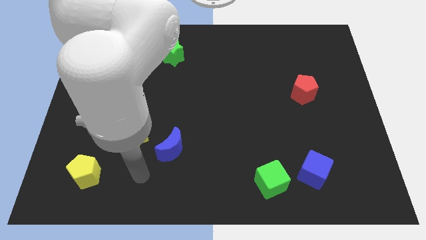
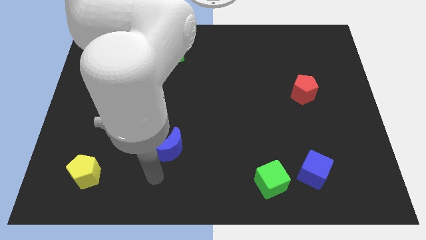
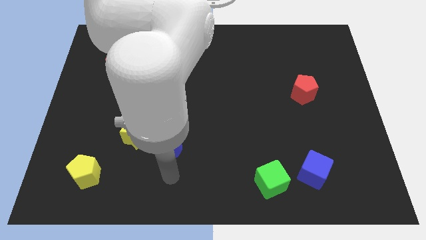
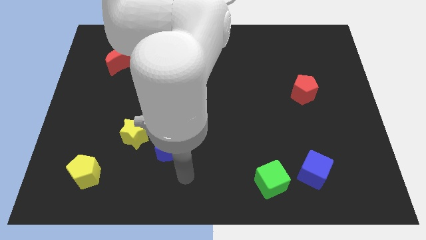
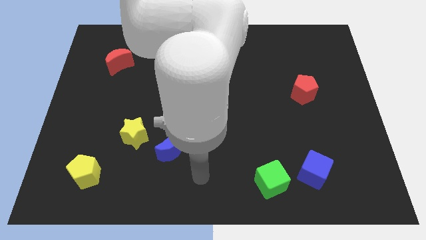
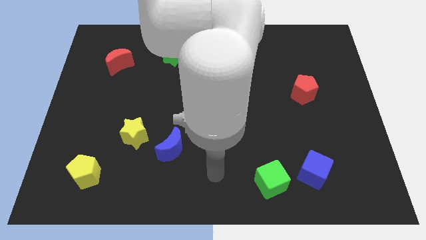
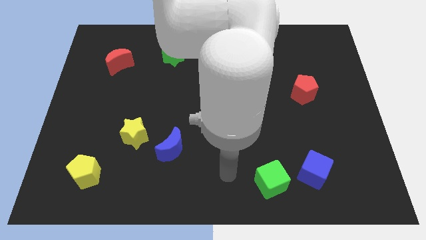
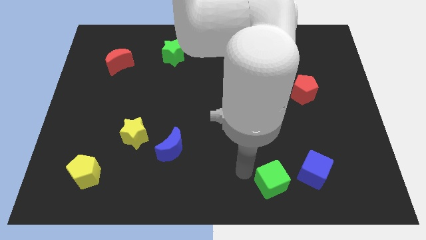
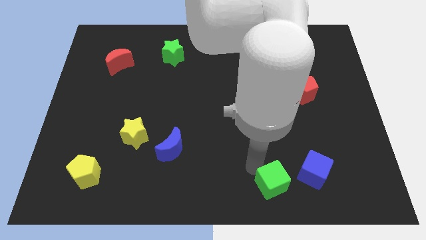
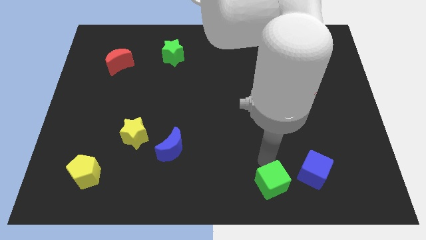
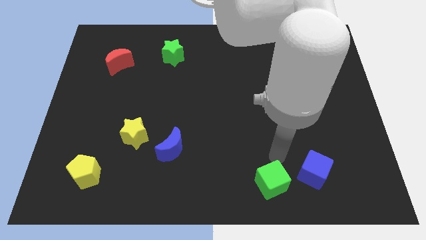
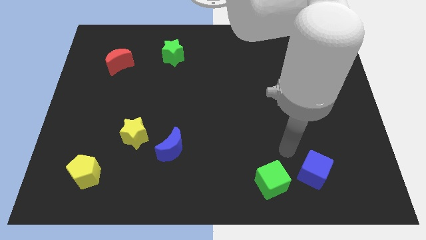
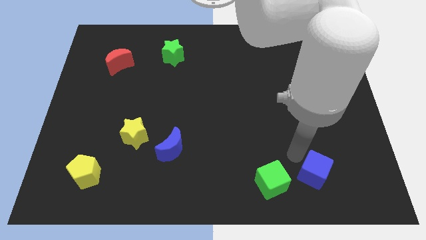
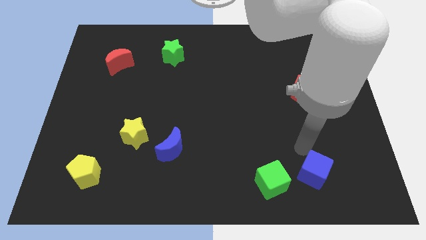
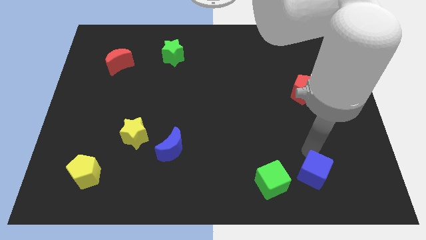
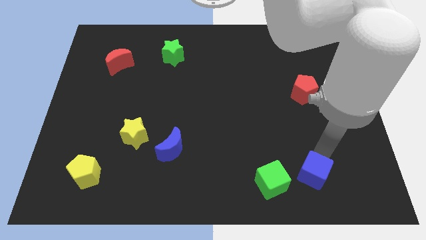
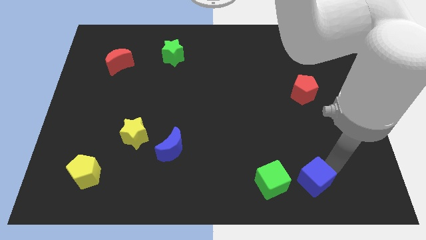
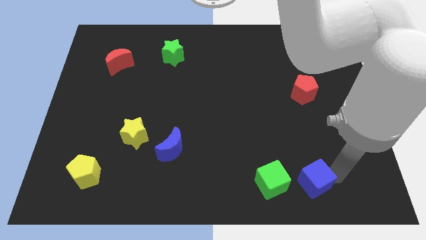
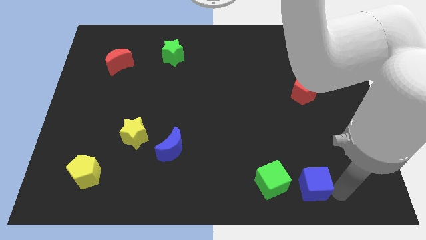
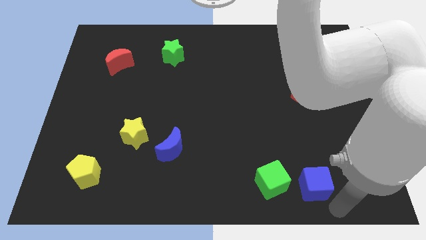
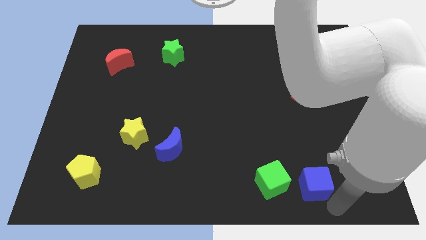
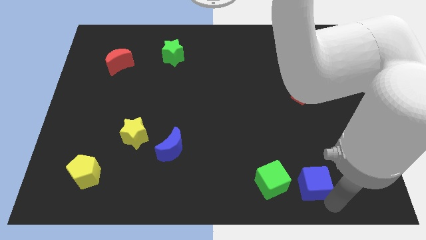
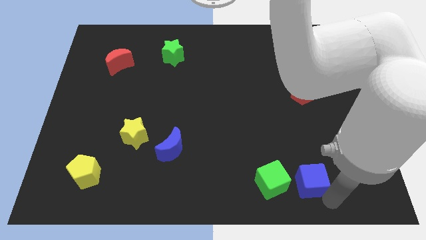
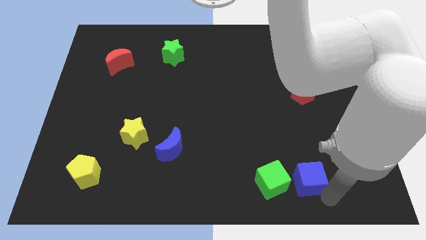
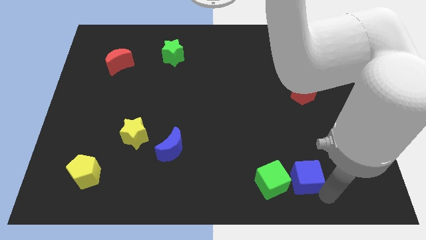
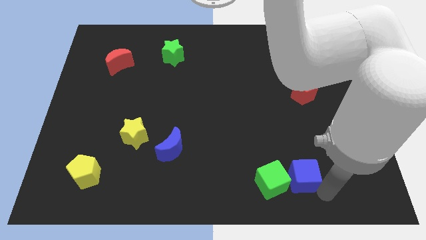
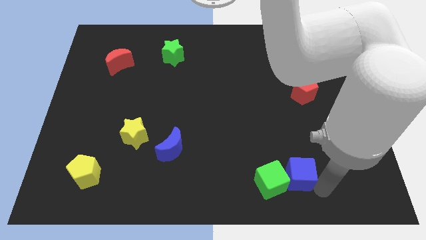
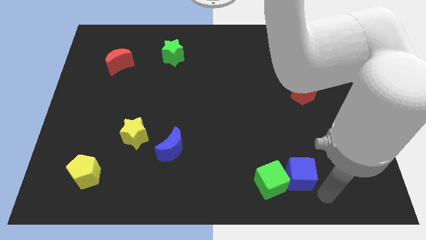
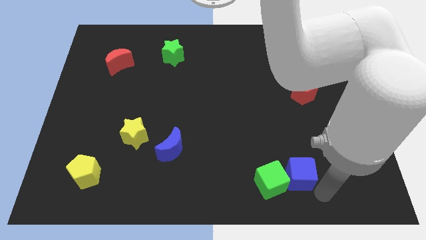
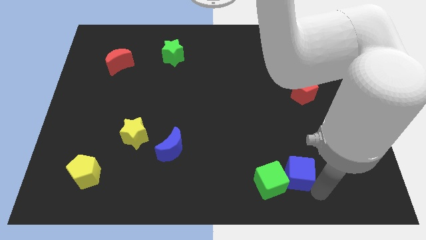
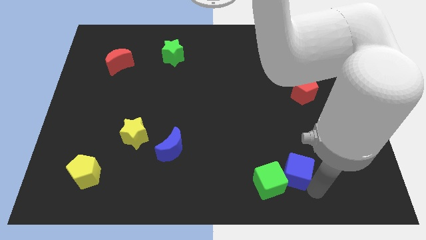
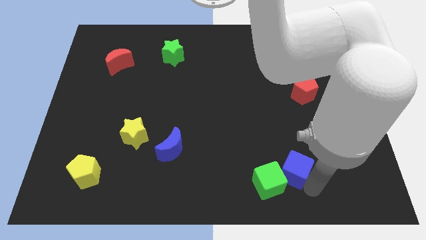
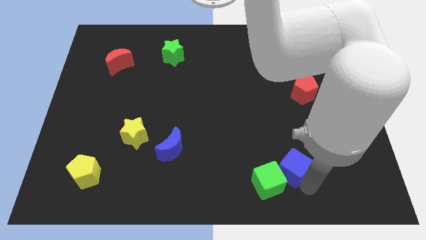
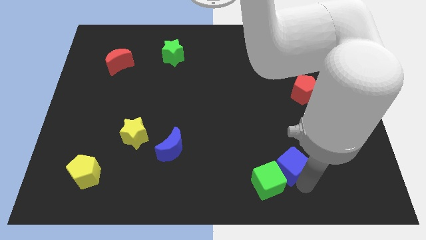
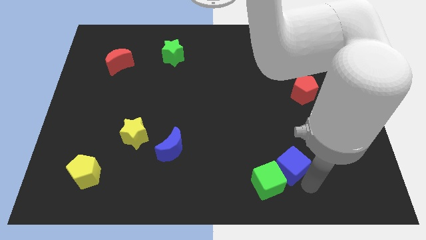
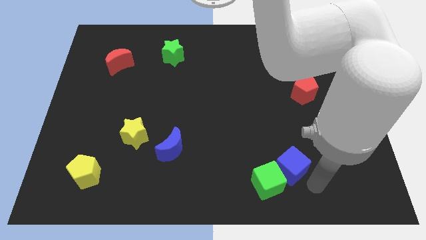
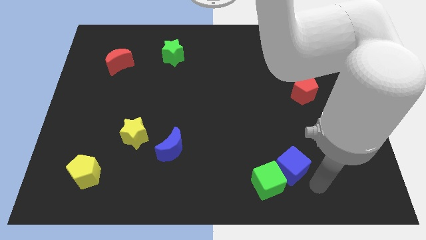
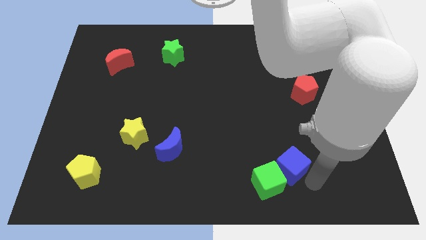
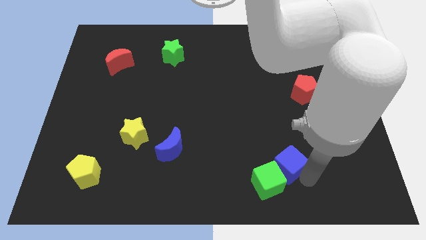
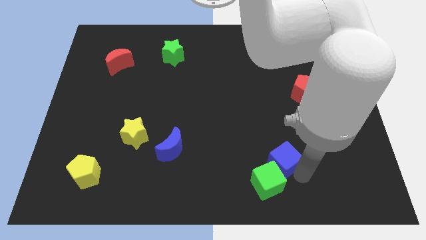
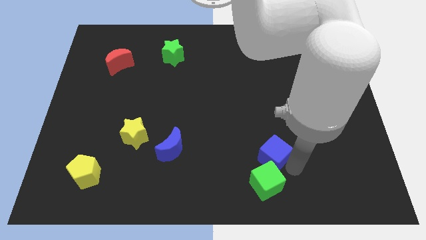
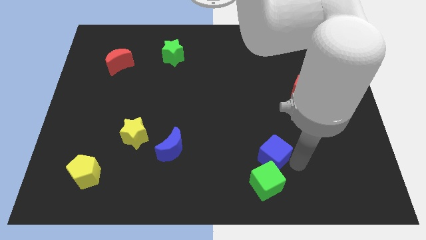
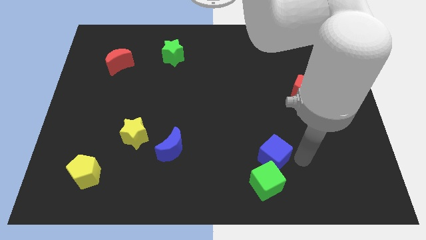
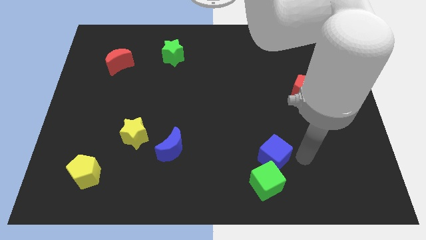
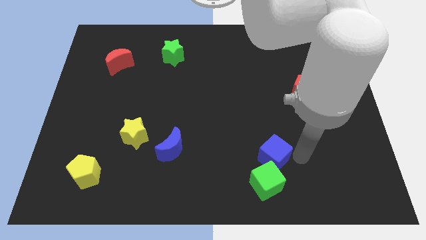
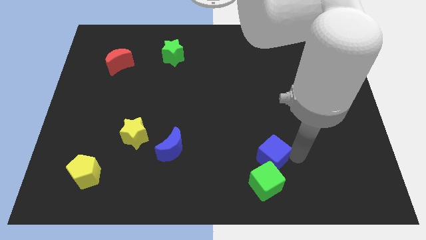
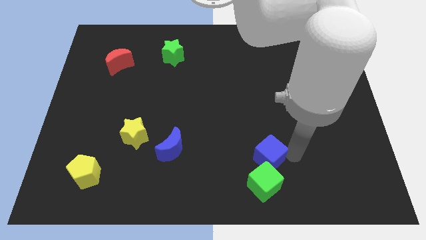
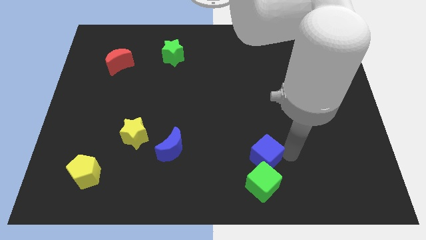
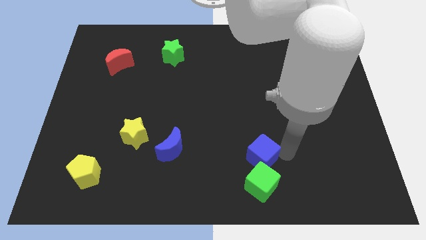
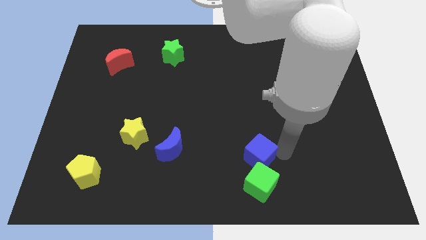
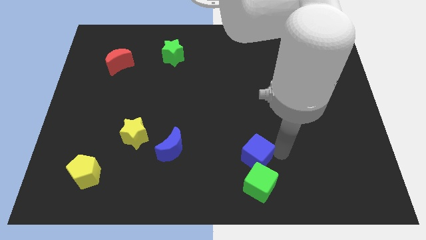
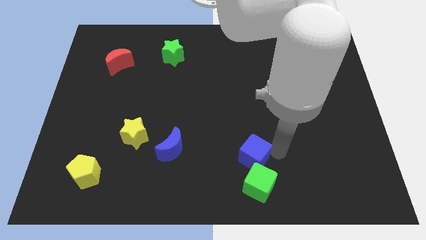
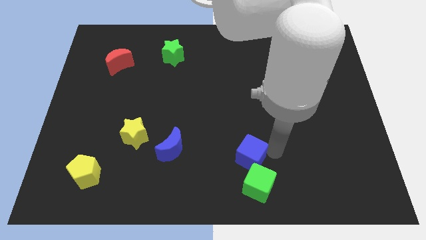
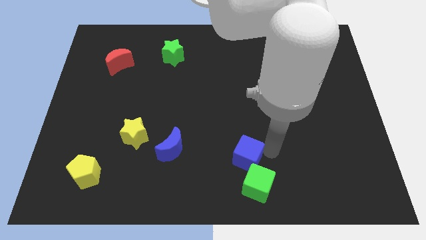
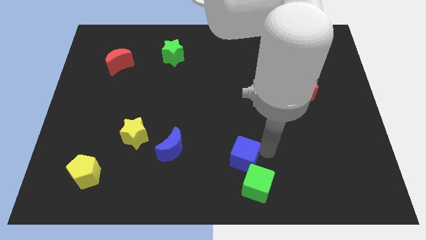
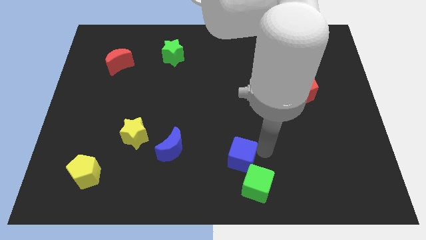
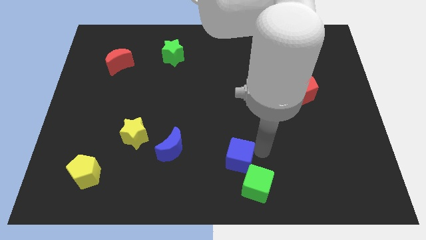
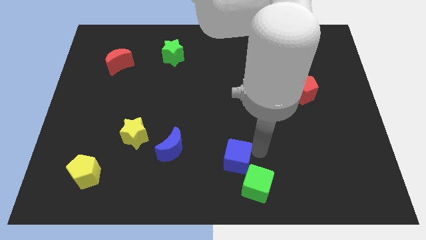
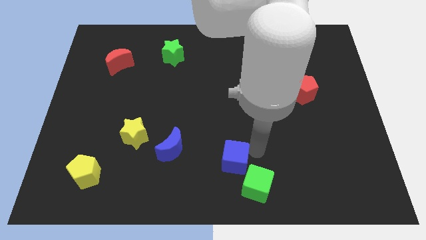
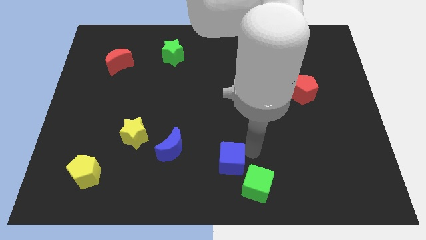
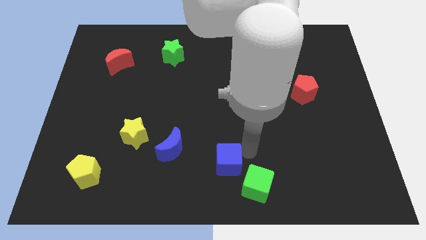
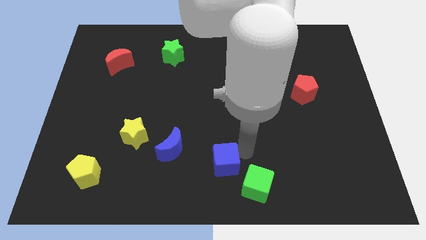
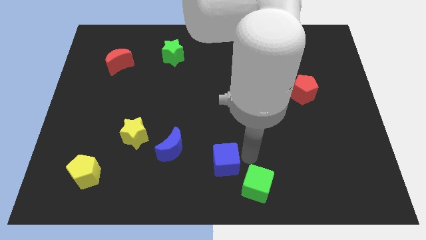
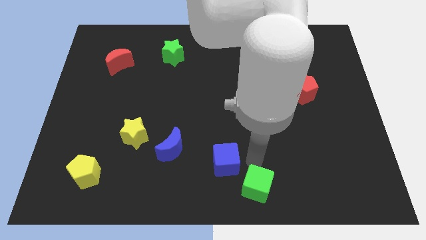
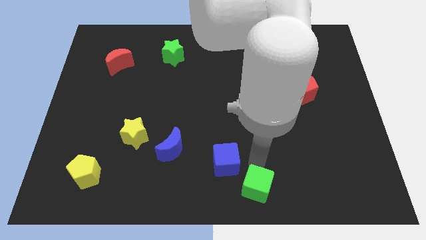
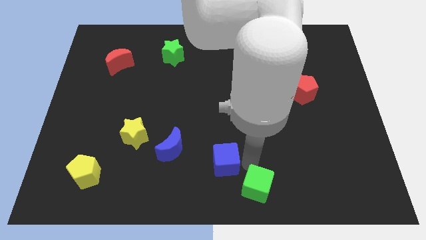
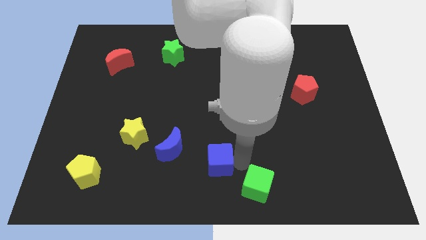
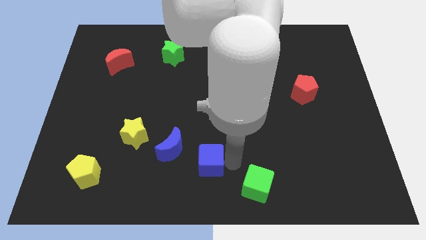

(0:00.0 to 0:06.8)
slide the blue cube to the left

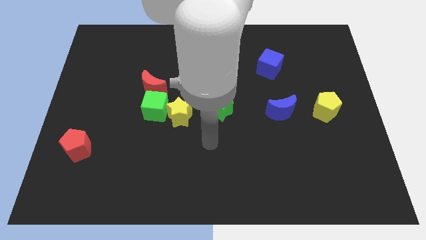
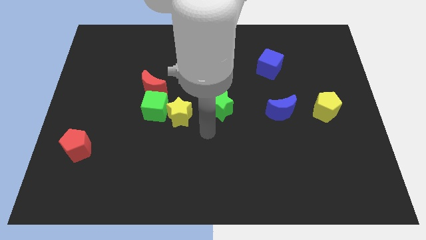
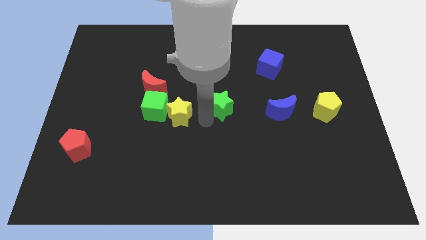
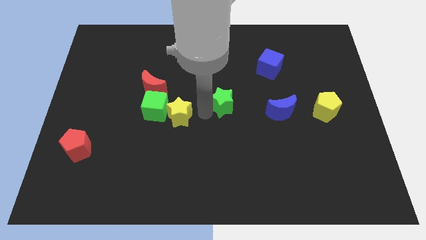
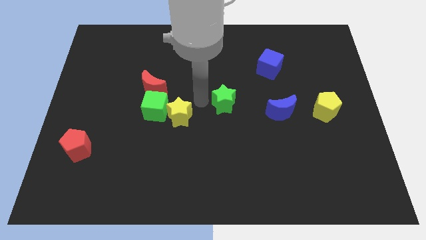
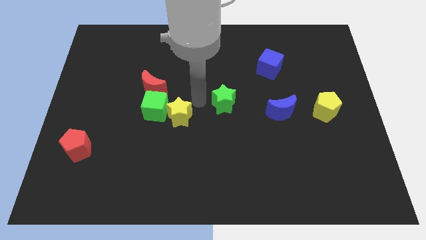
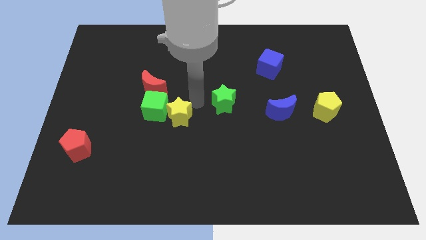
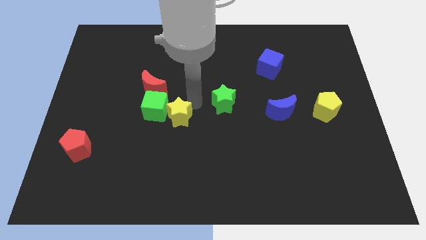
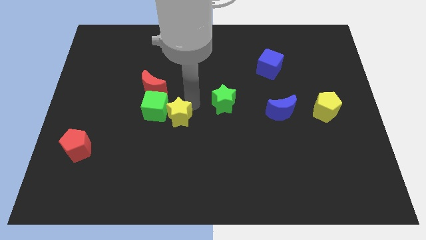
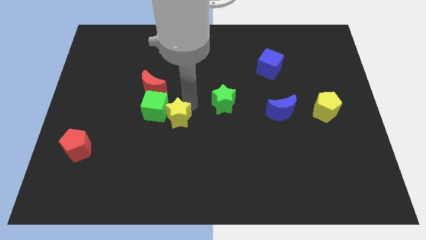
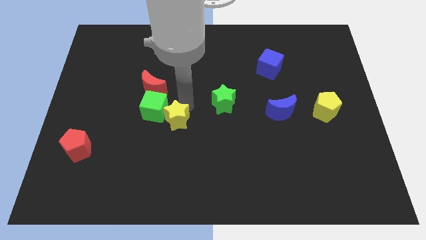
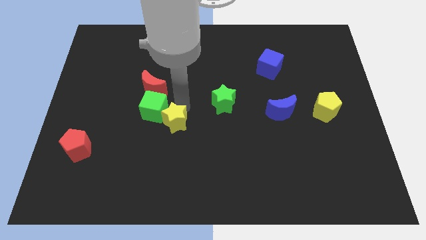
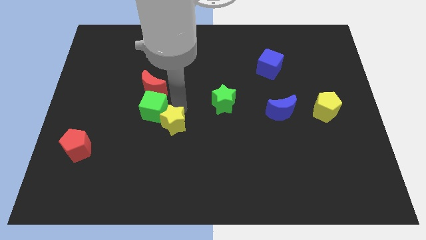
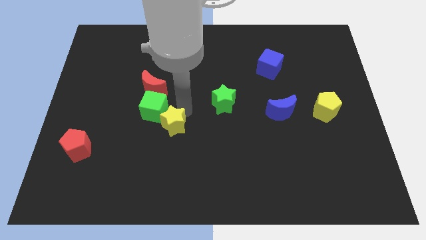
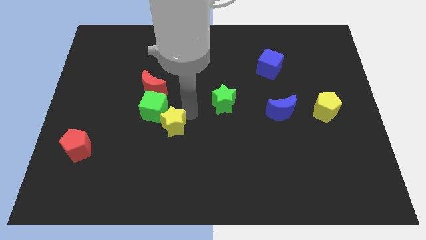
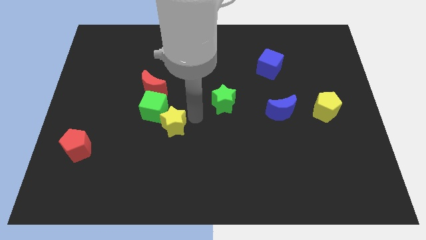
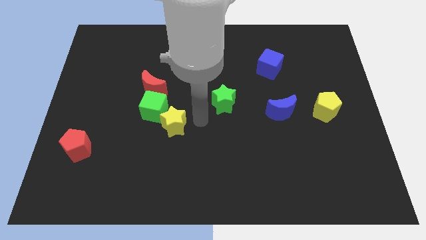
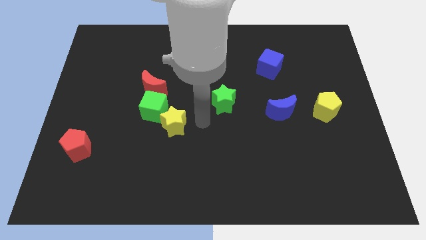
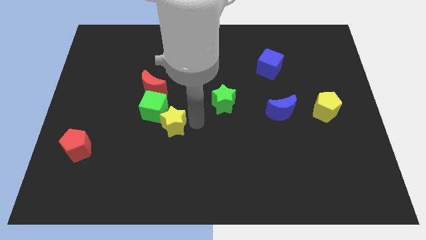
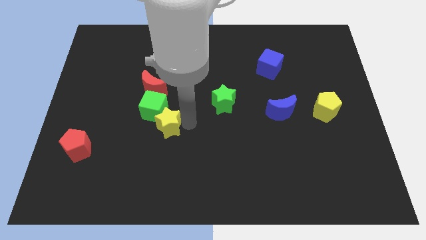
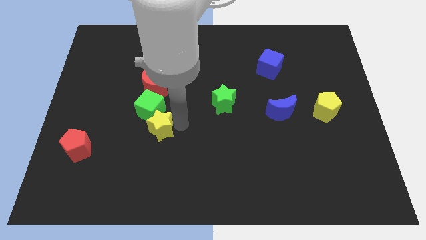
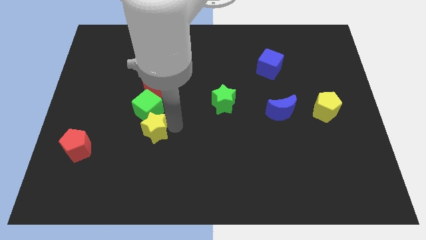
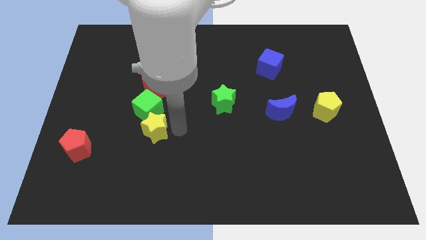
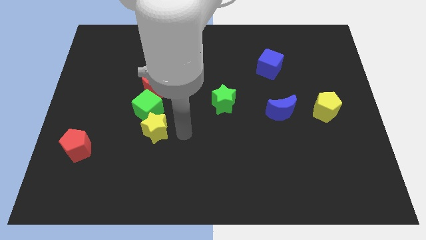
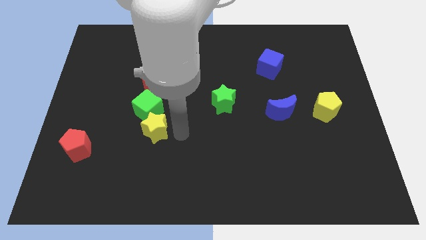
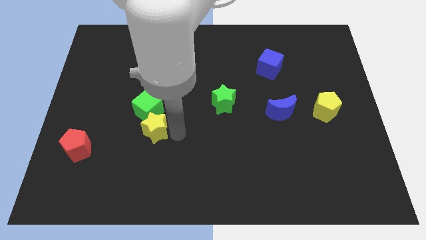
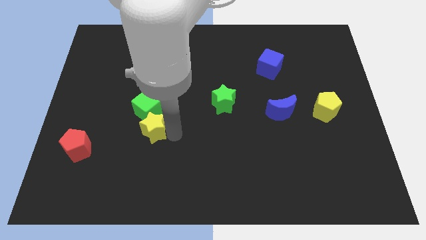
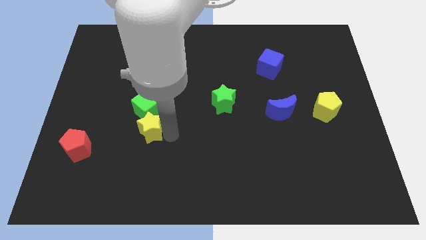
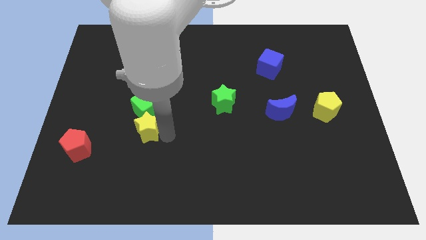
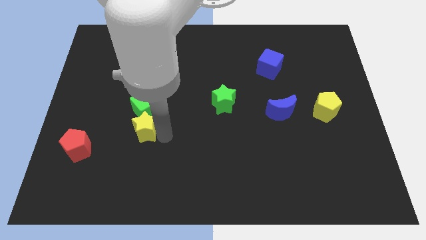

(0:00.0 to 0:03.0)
slide the yellow star left a bit
